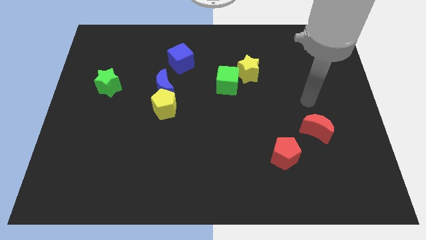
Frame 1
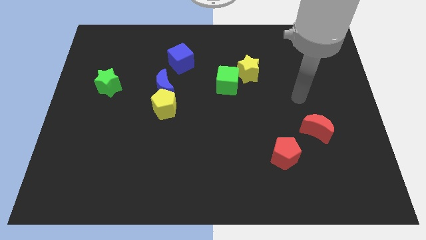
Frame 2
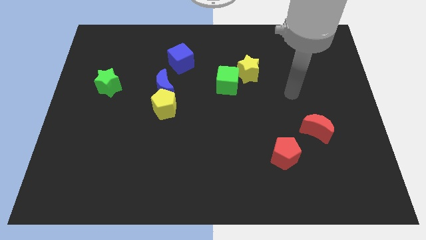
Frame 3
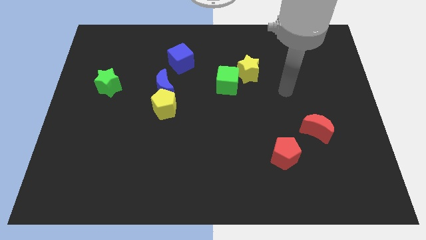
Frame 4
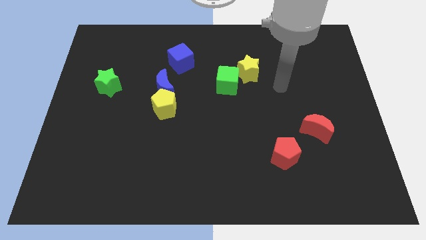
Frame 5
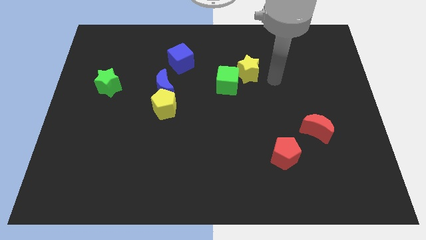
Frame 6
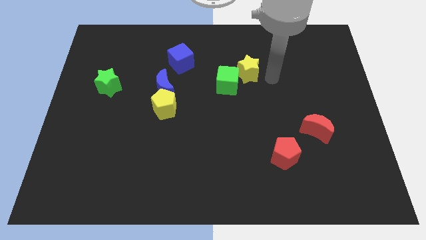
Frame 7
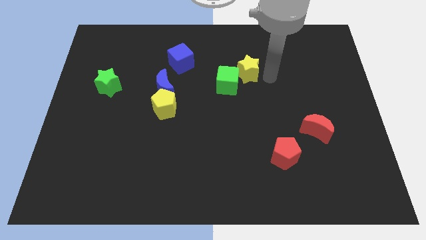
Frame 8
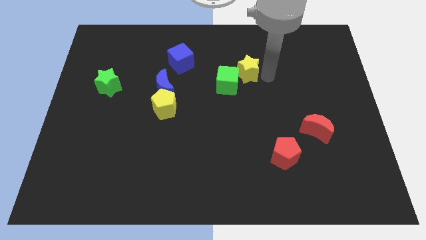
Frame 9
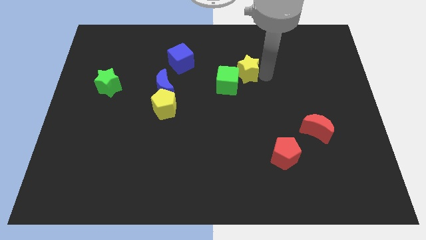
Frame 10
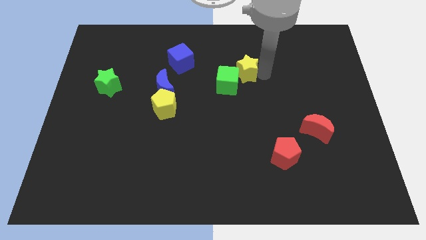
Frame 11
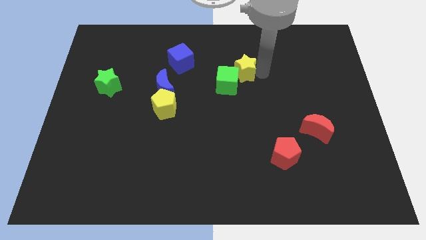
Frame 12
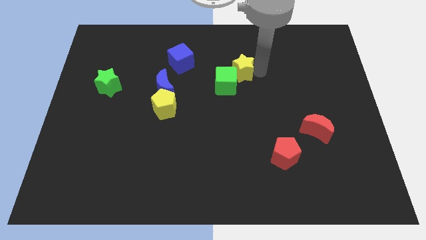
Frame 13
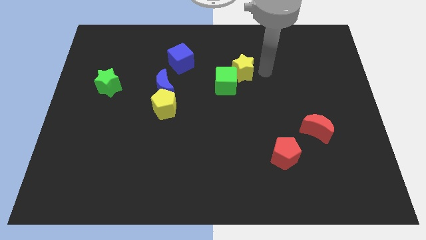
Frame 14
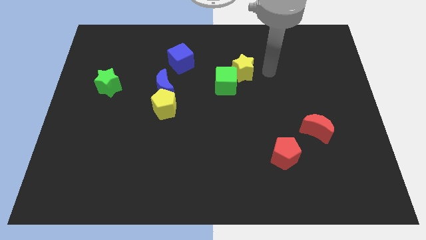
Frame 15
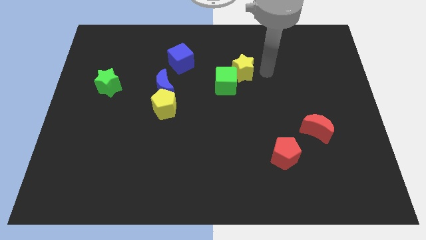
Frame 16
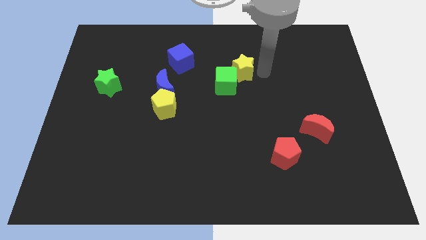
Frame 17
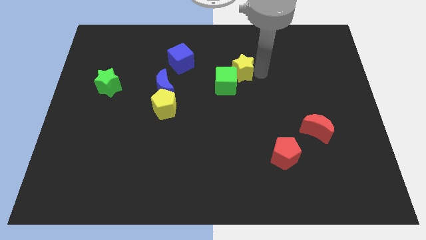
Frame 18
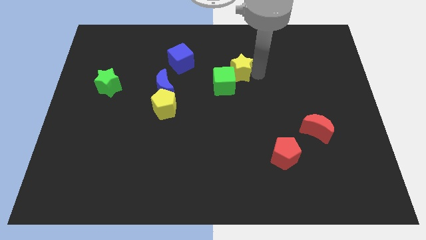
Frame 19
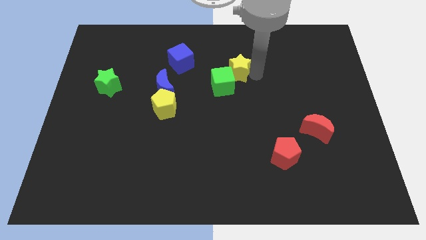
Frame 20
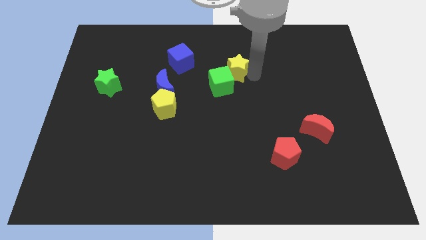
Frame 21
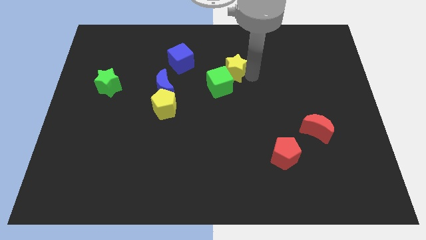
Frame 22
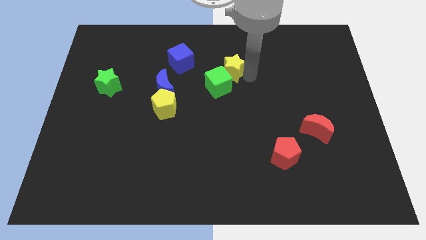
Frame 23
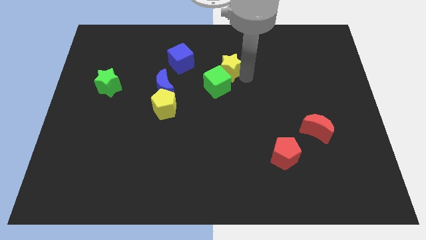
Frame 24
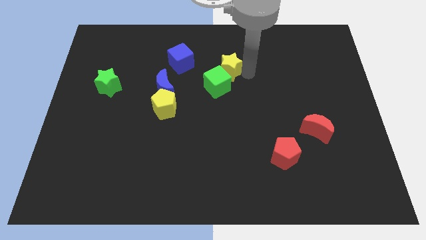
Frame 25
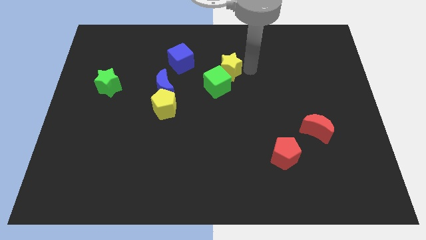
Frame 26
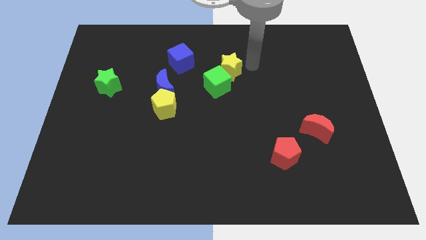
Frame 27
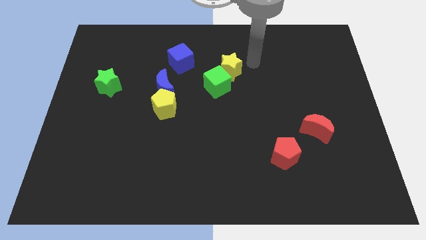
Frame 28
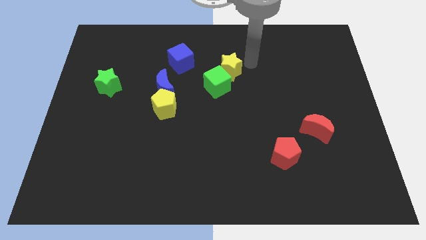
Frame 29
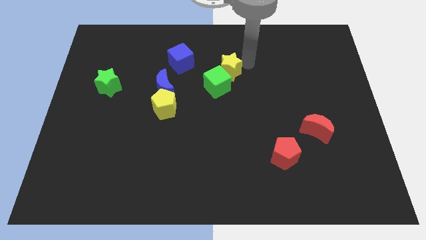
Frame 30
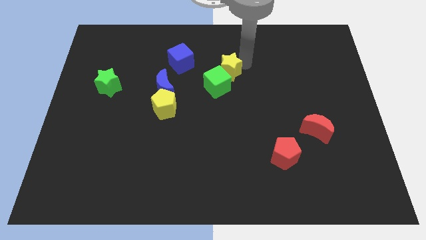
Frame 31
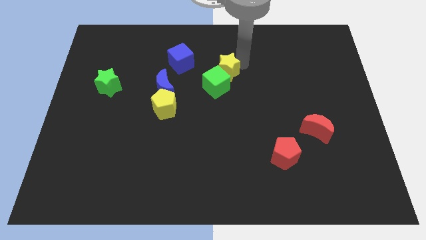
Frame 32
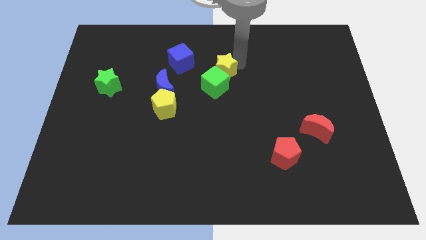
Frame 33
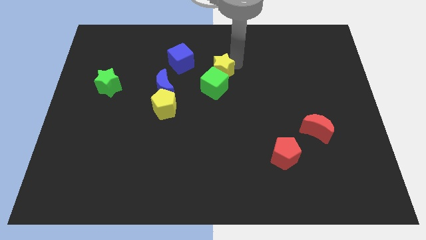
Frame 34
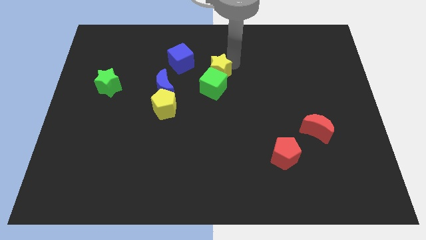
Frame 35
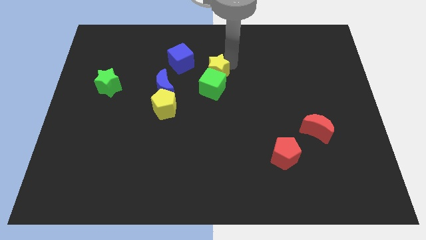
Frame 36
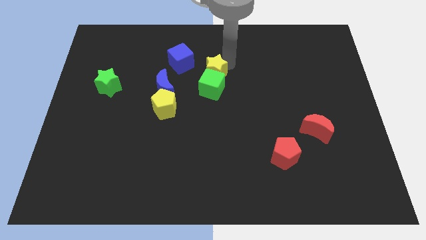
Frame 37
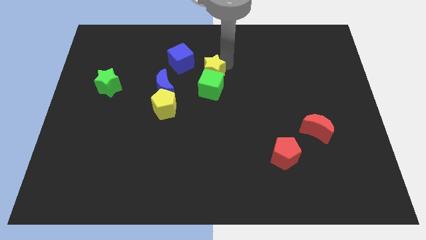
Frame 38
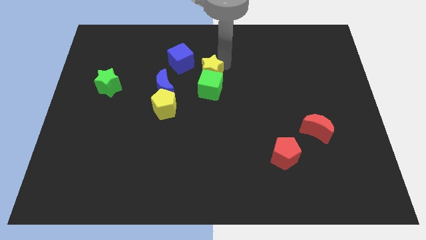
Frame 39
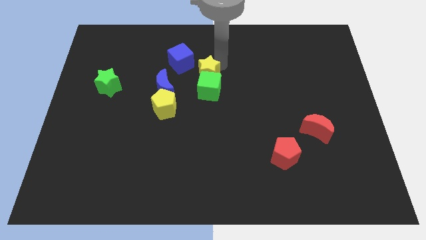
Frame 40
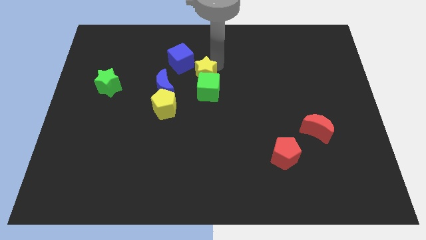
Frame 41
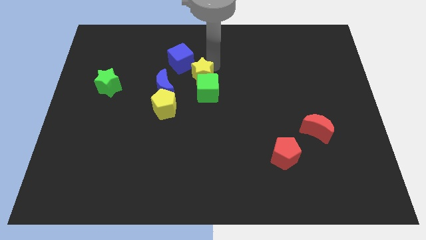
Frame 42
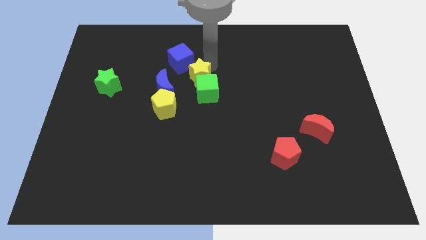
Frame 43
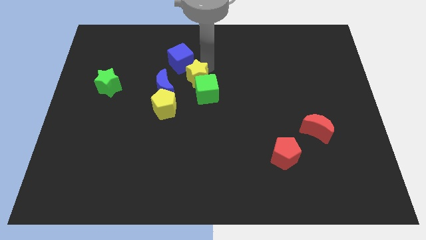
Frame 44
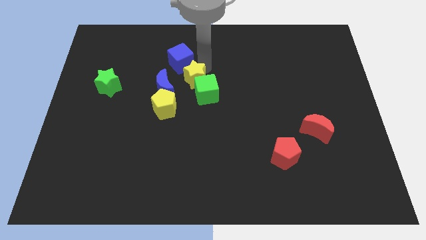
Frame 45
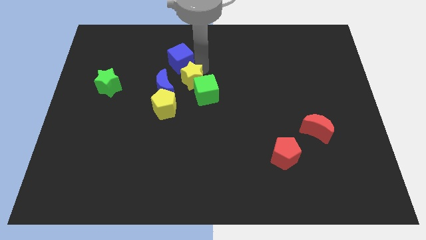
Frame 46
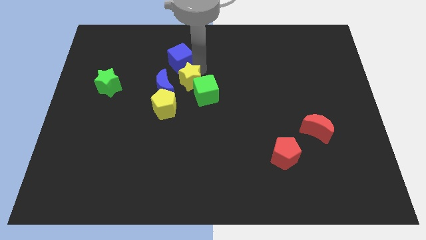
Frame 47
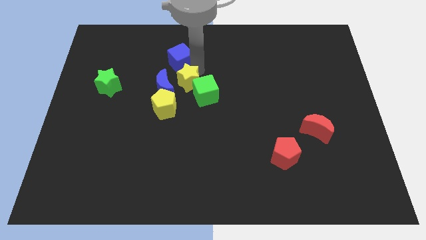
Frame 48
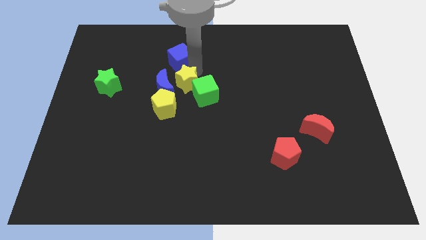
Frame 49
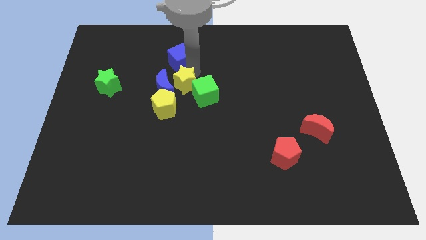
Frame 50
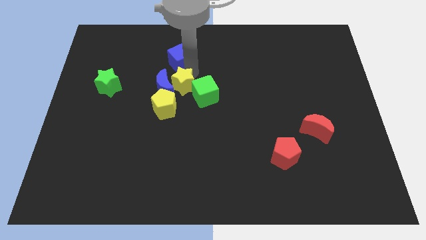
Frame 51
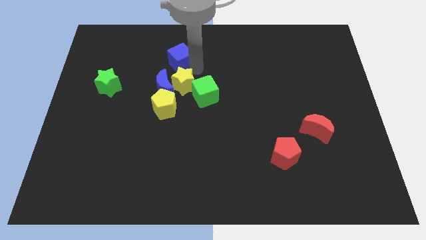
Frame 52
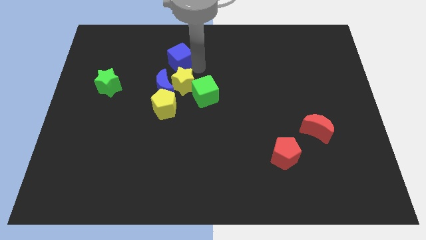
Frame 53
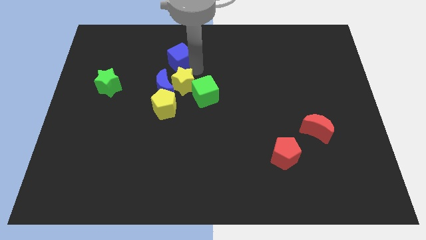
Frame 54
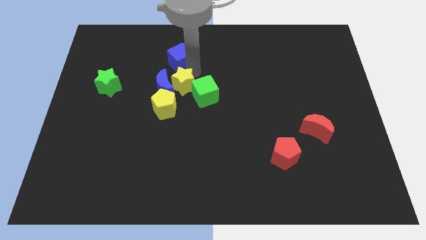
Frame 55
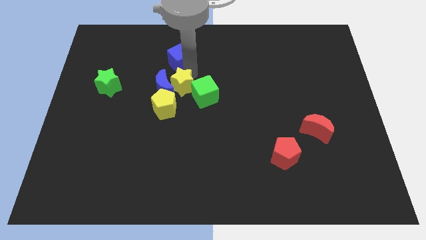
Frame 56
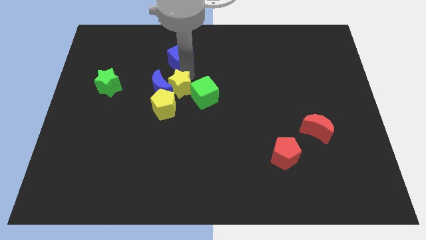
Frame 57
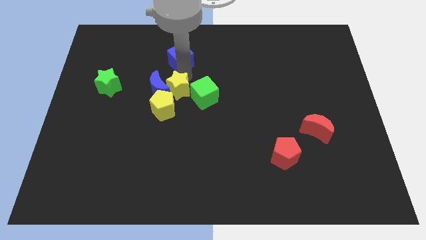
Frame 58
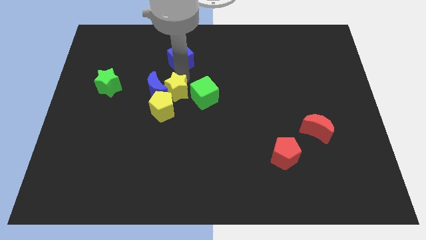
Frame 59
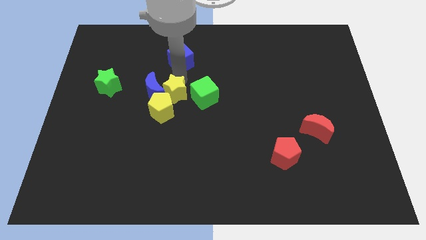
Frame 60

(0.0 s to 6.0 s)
put the yellow star next to the yellow pentagon

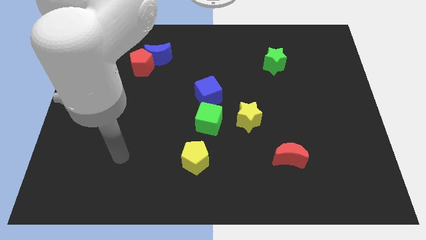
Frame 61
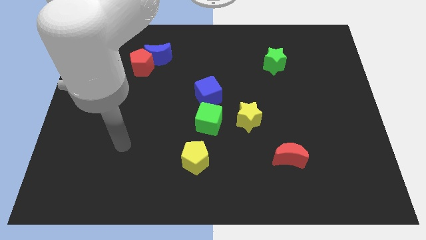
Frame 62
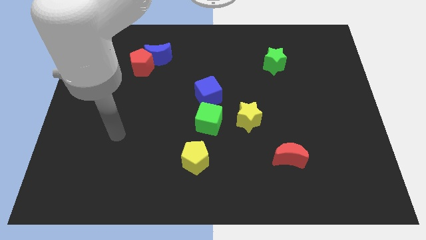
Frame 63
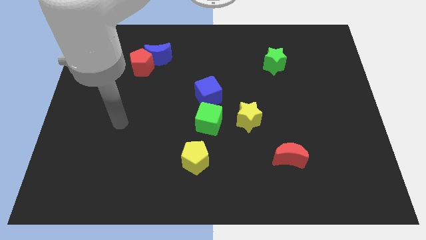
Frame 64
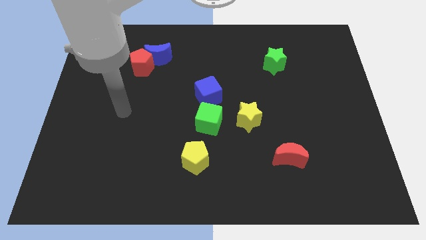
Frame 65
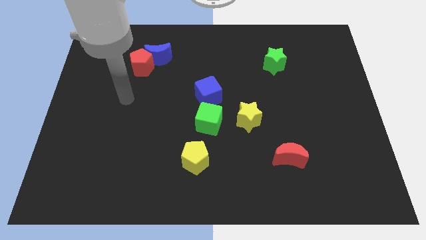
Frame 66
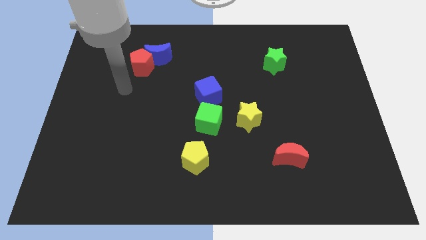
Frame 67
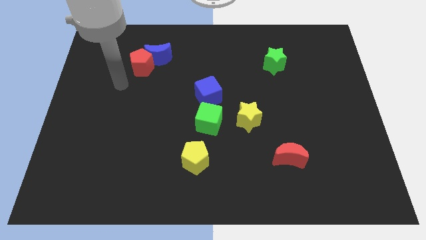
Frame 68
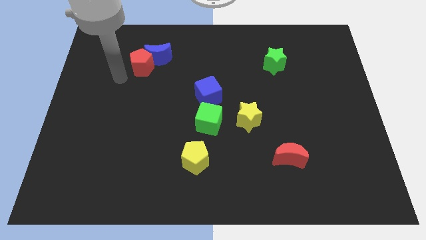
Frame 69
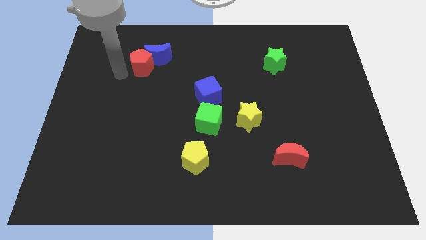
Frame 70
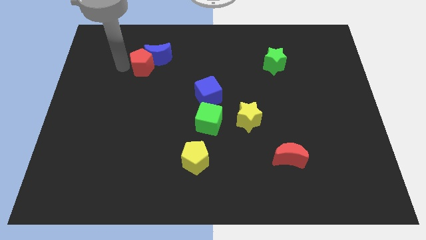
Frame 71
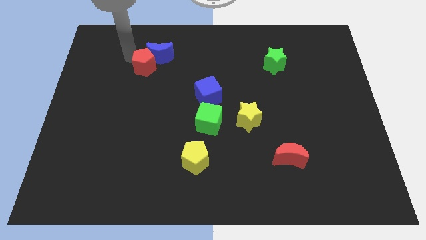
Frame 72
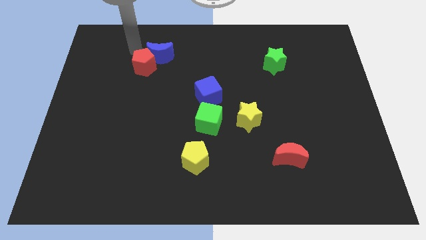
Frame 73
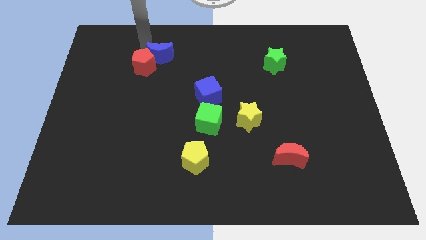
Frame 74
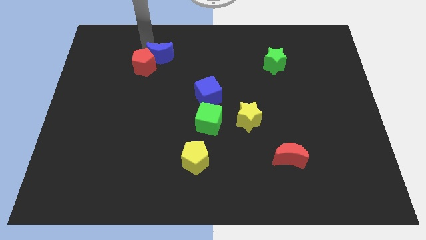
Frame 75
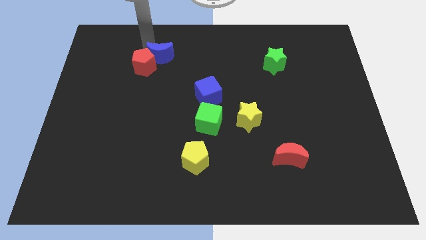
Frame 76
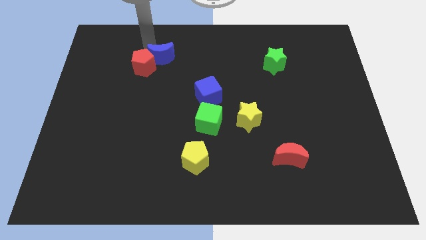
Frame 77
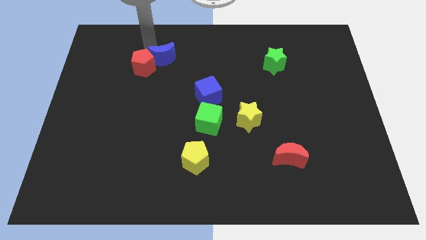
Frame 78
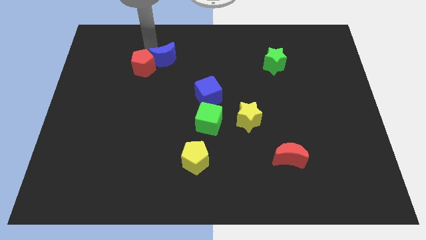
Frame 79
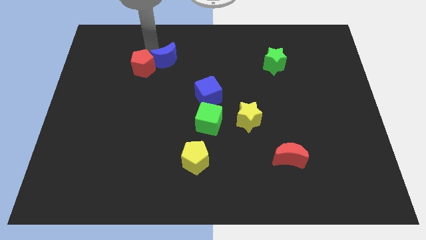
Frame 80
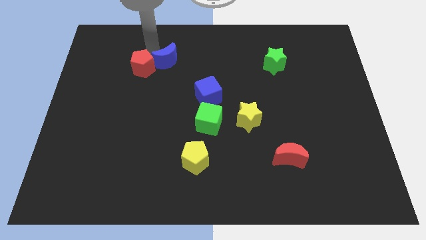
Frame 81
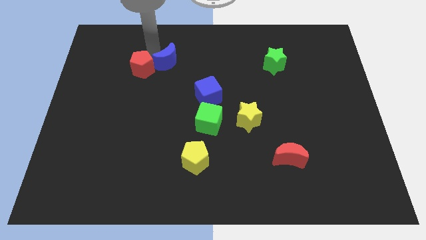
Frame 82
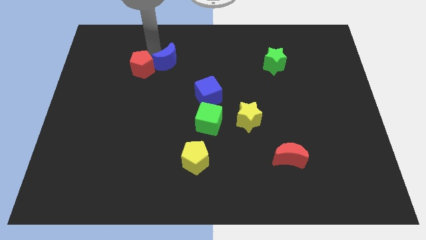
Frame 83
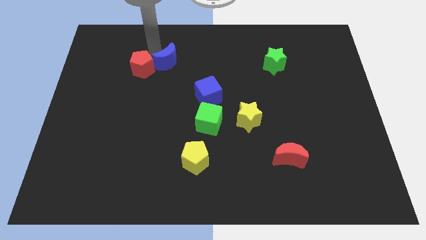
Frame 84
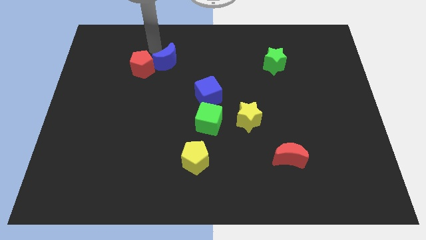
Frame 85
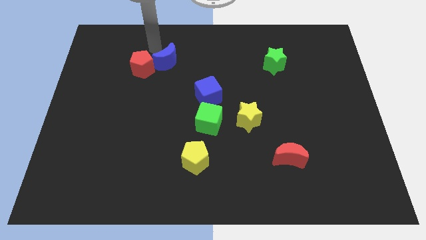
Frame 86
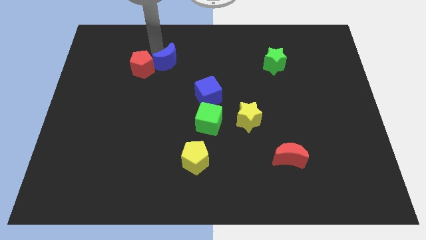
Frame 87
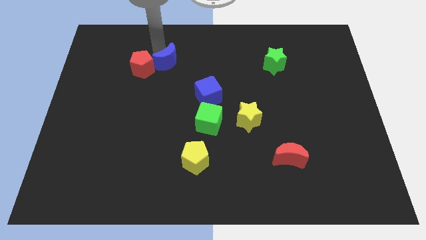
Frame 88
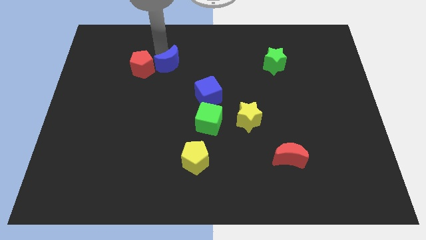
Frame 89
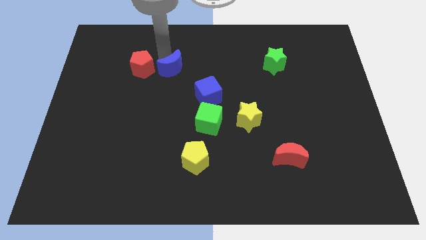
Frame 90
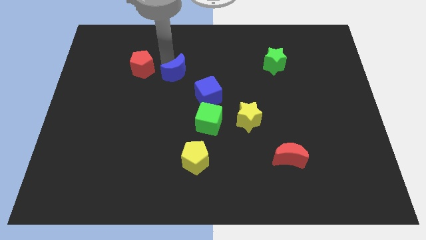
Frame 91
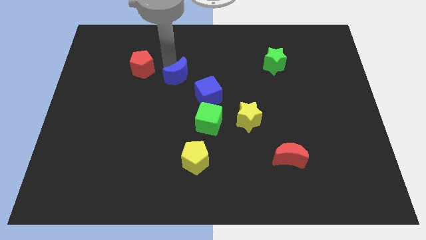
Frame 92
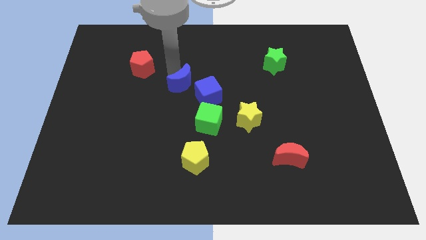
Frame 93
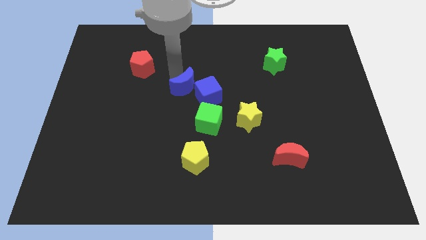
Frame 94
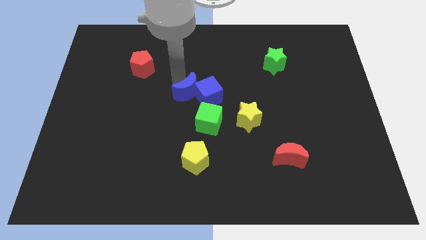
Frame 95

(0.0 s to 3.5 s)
put the blue moon towards the blue cube
